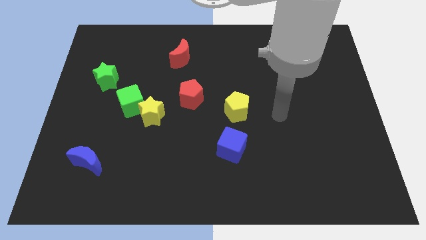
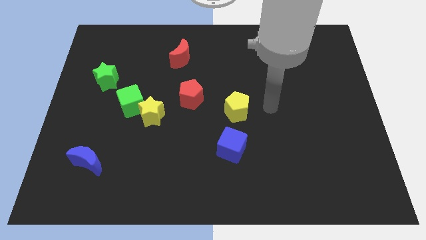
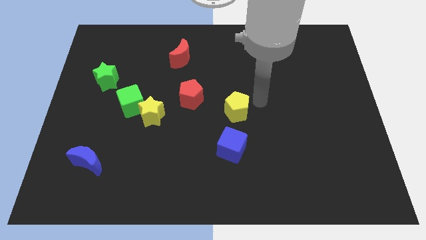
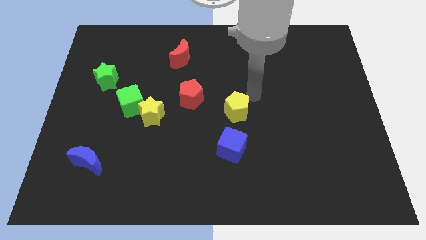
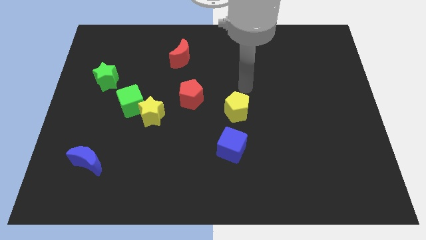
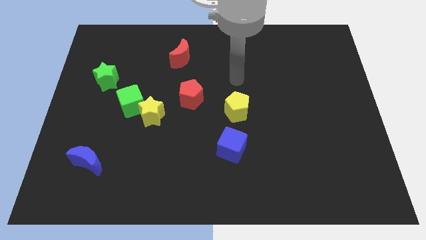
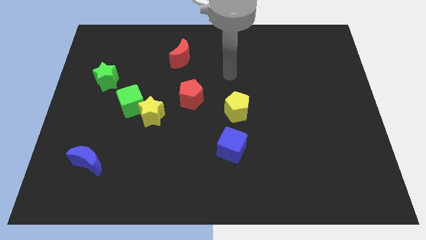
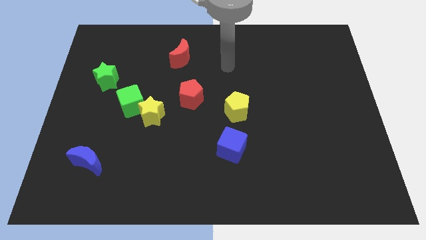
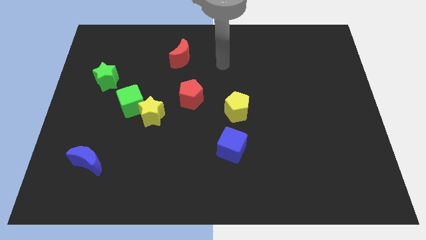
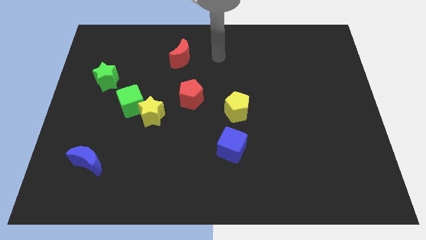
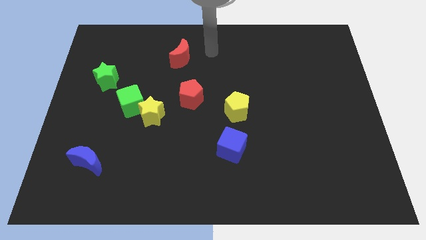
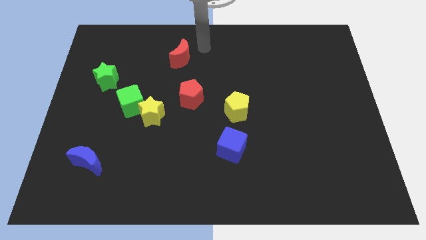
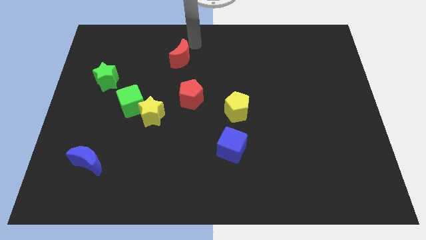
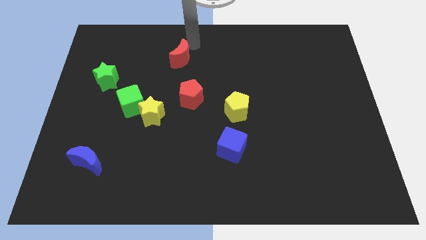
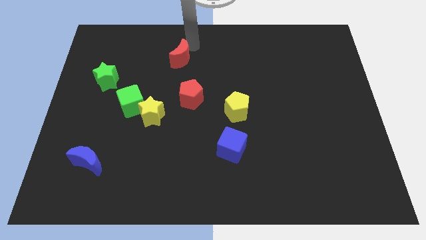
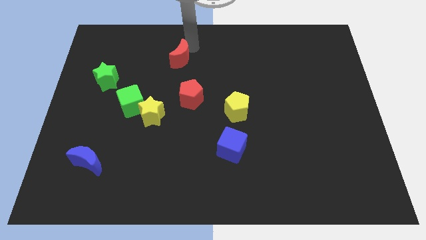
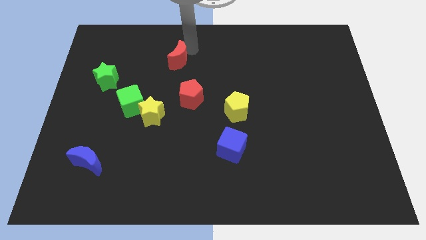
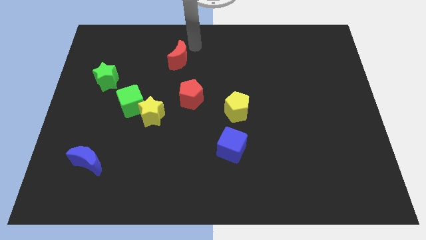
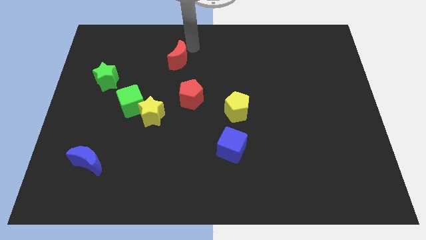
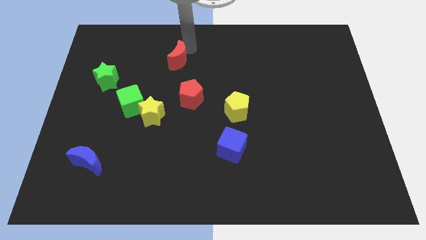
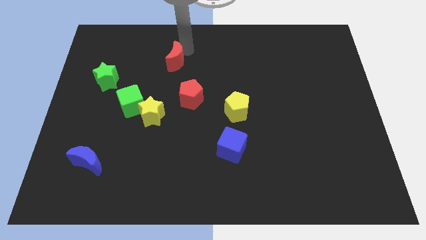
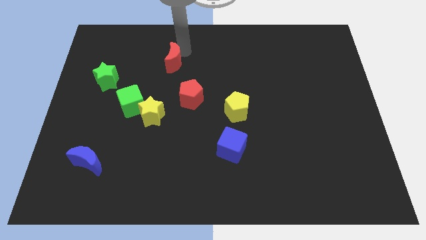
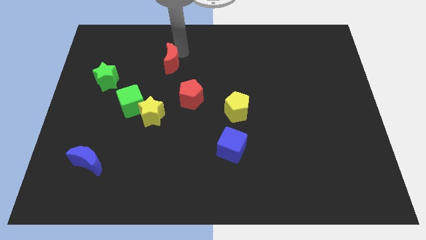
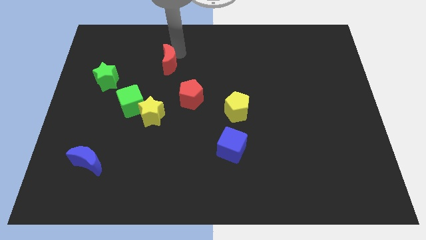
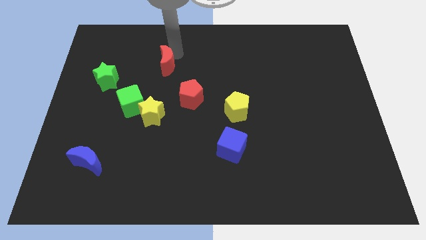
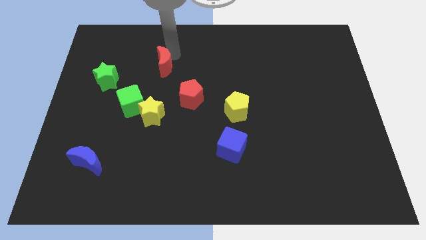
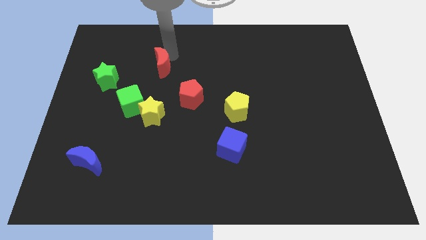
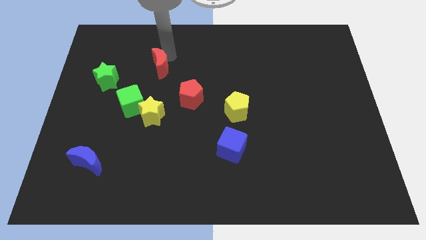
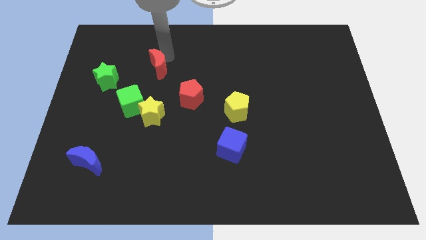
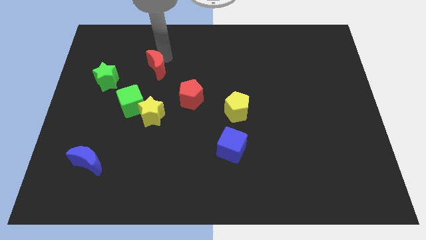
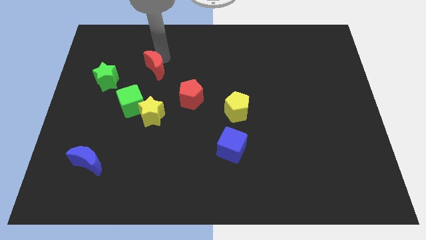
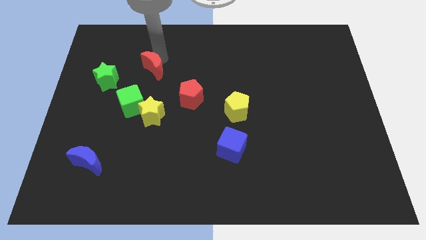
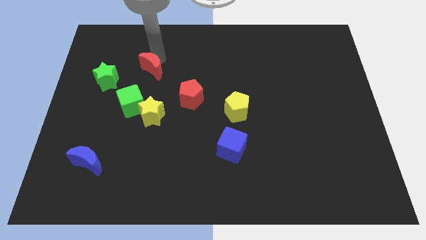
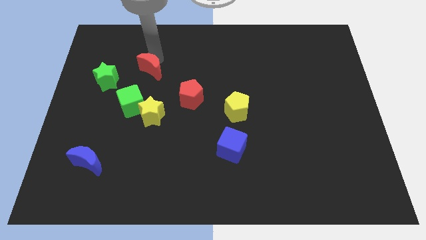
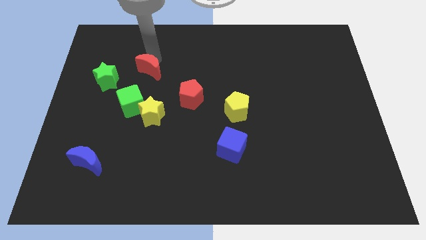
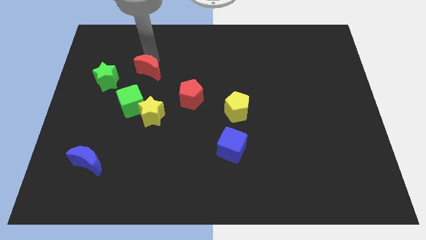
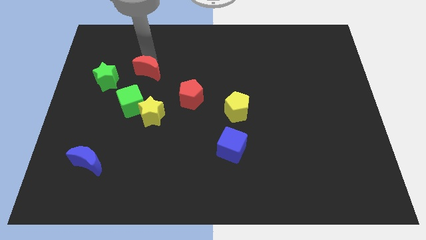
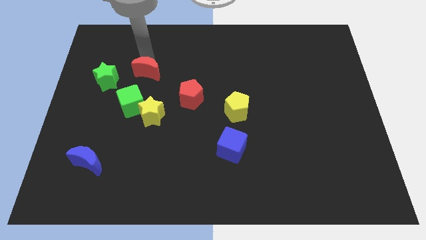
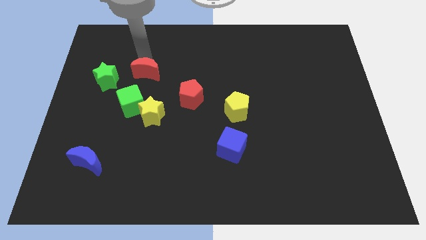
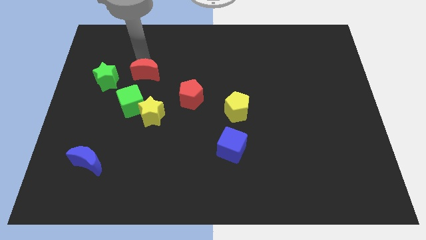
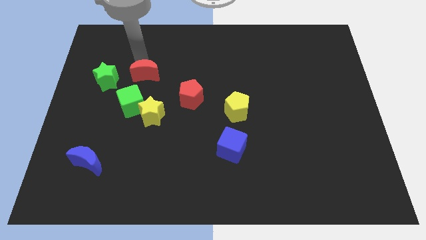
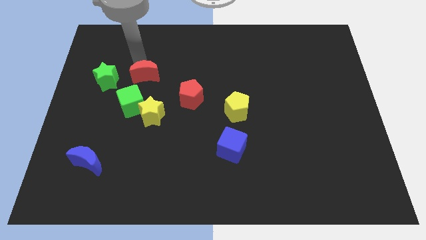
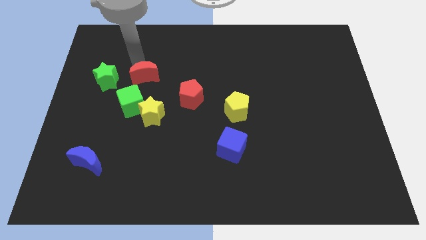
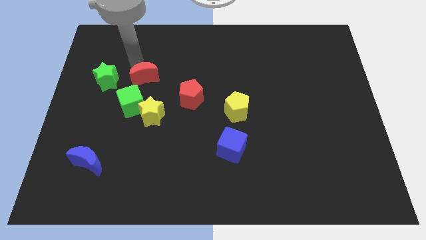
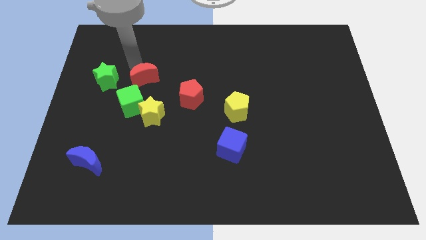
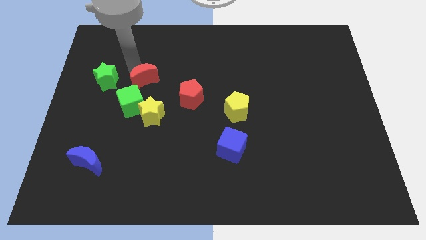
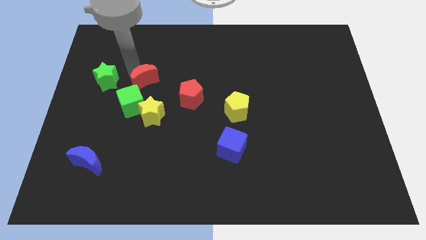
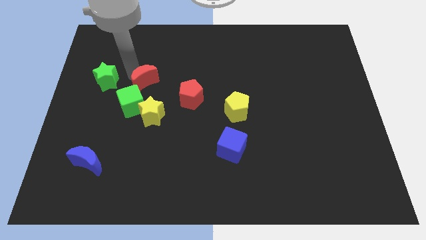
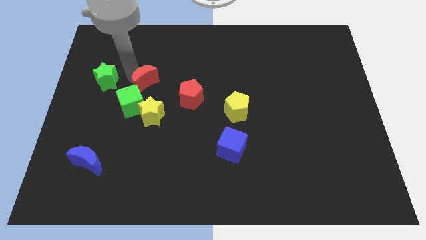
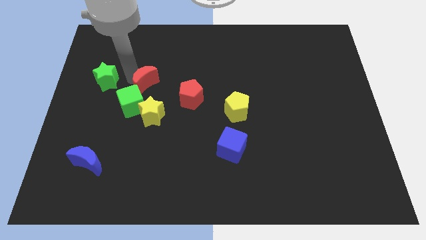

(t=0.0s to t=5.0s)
move the red moon just left of the red pentagon

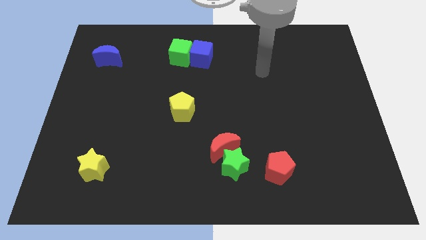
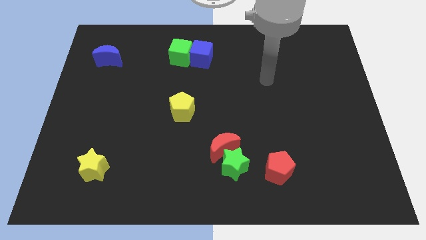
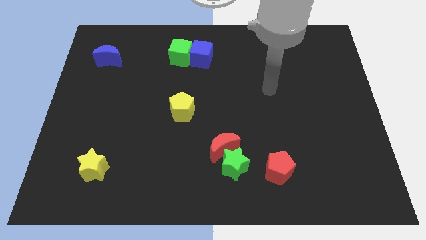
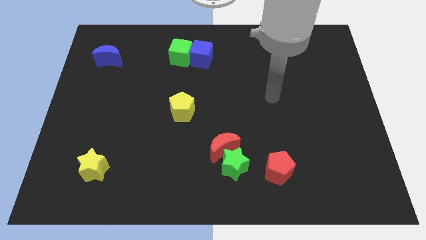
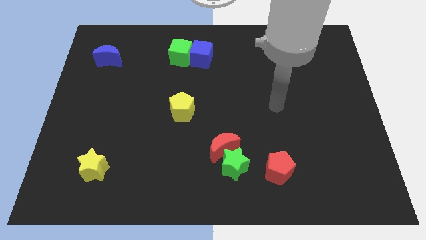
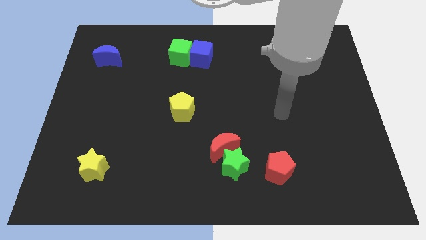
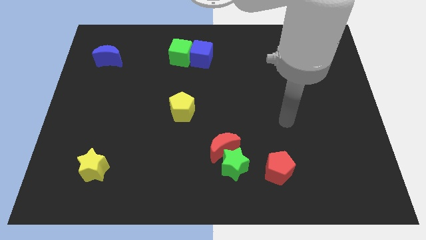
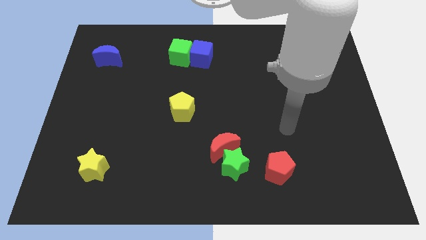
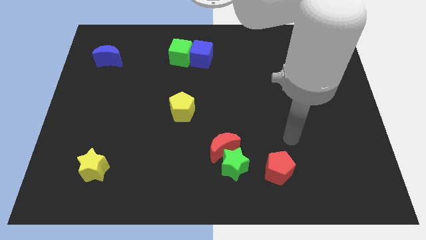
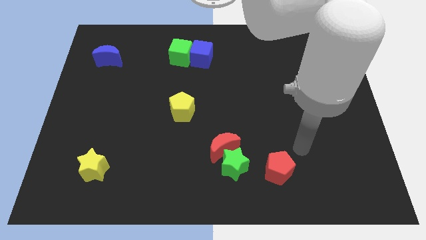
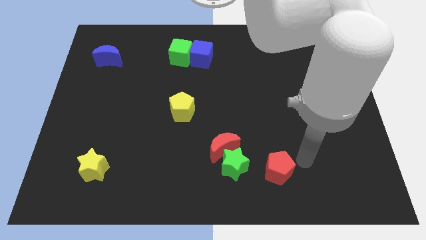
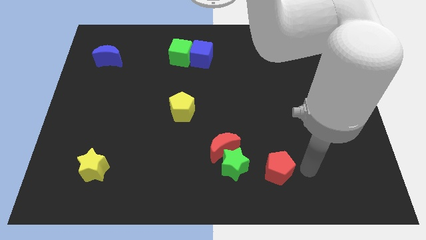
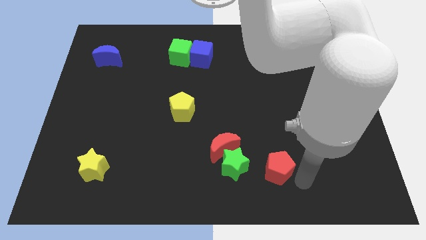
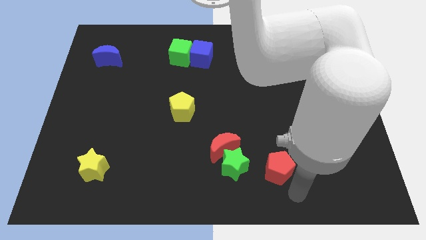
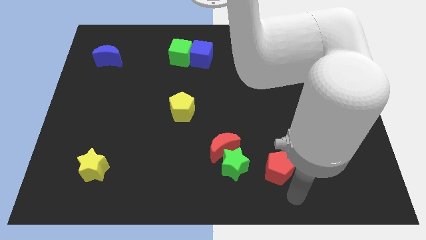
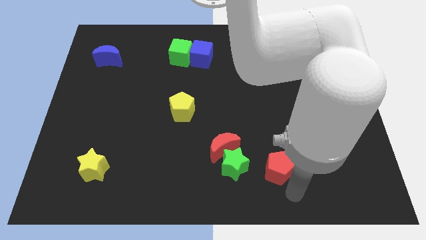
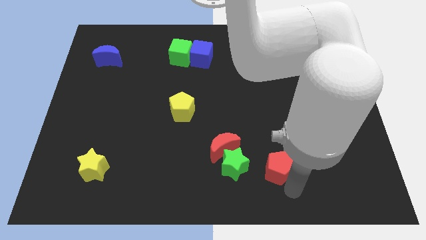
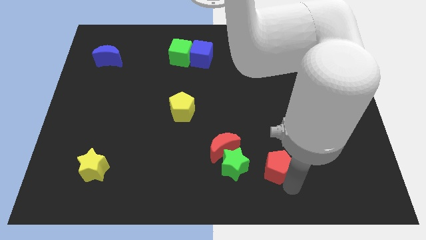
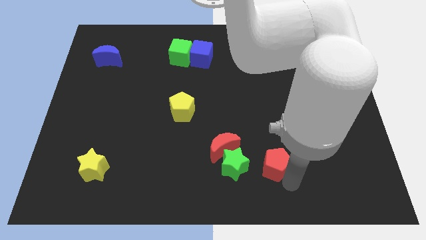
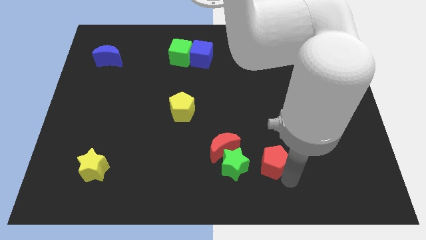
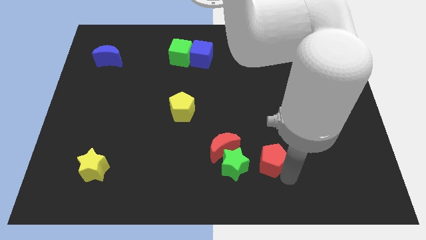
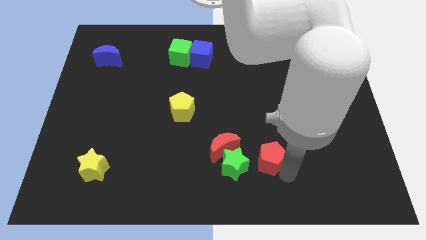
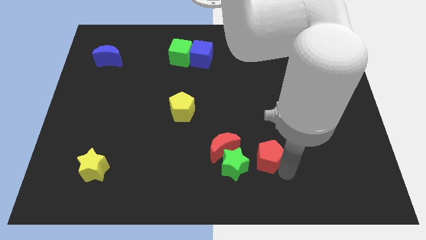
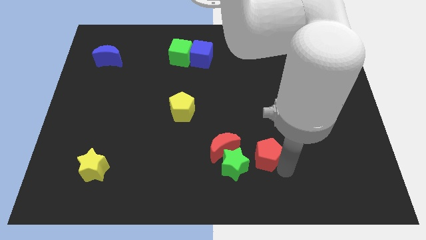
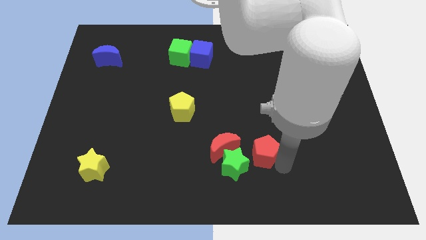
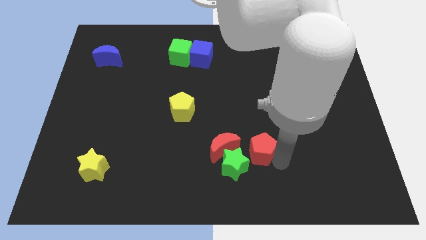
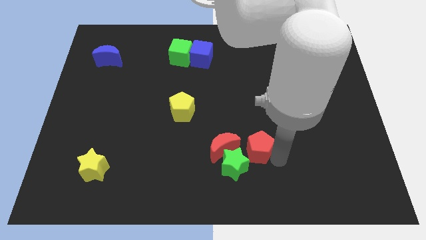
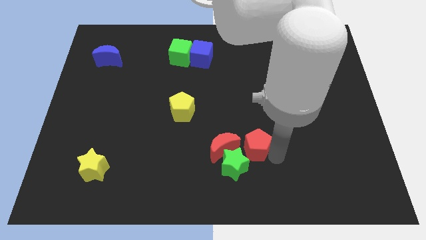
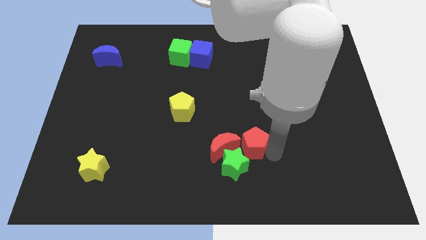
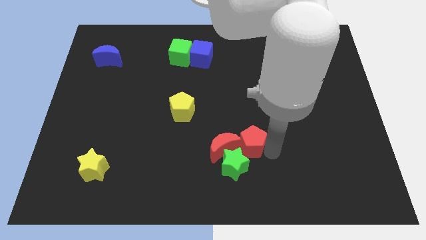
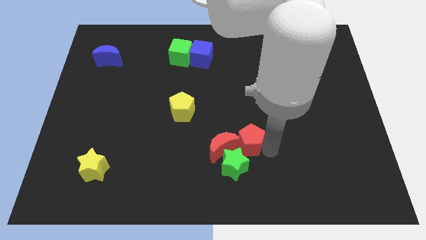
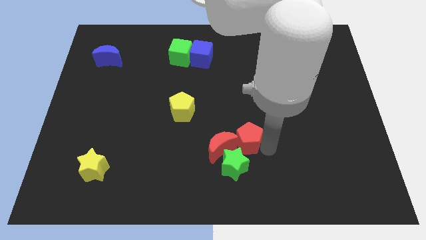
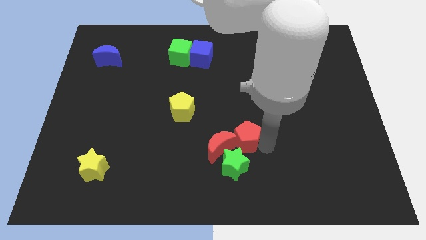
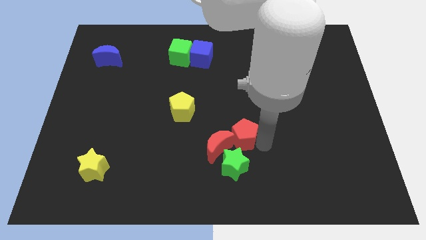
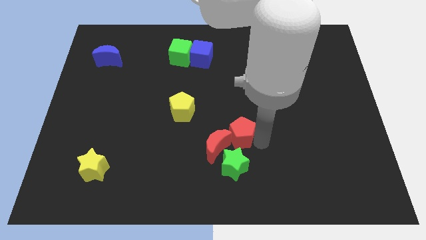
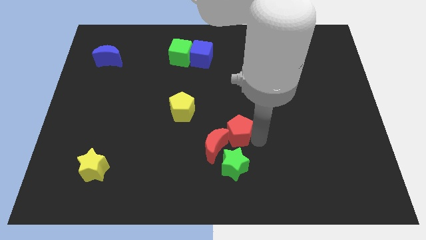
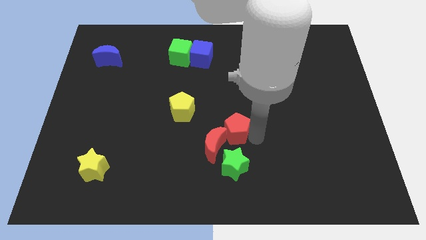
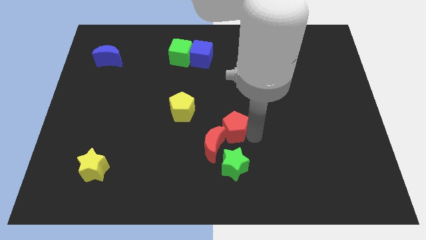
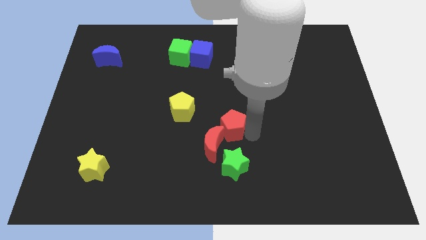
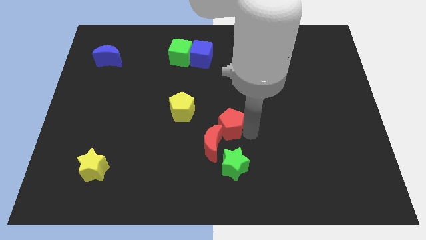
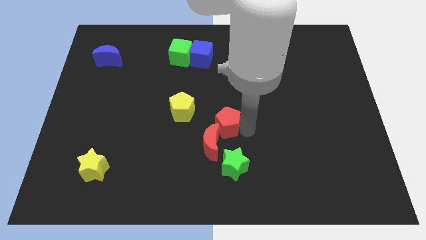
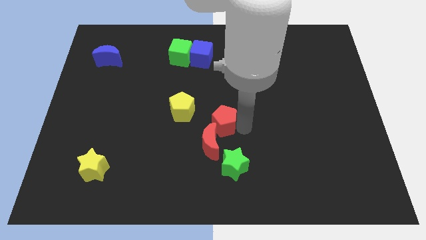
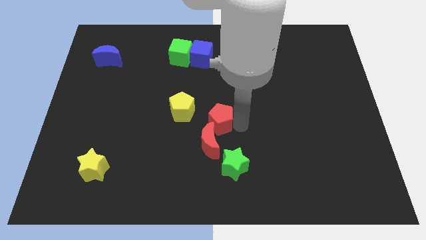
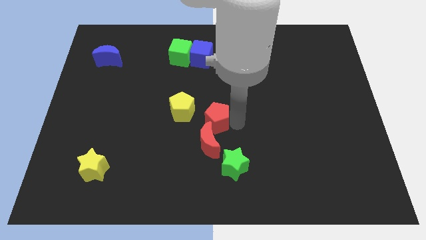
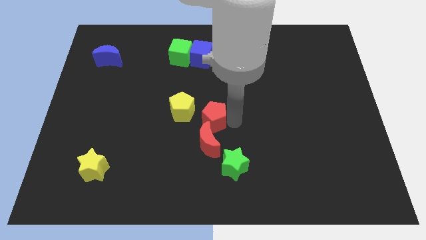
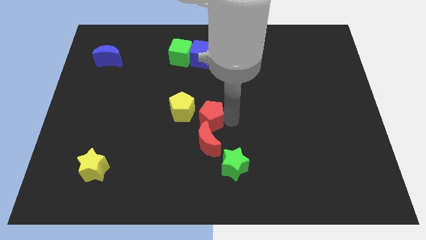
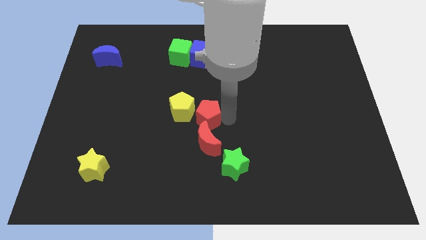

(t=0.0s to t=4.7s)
put the red pentagon to the top left of the red moon
